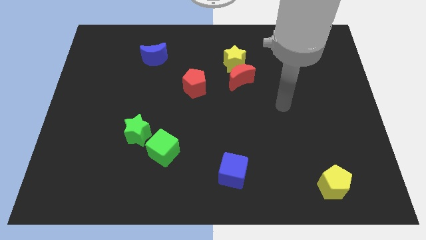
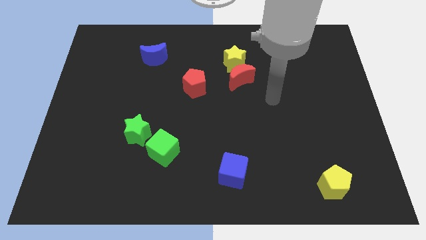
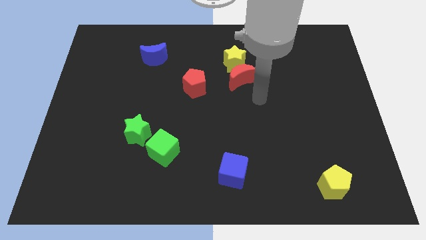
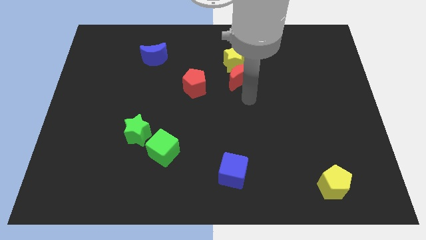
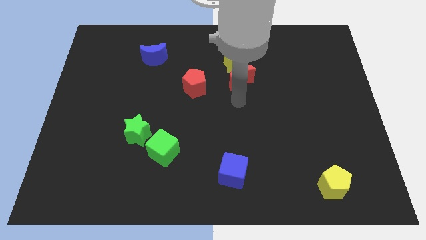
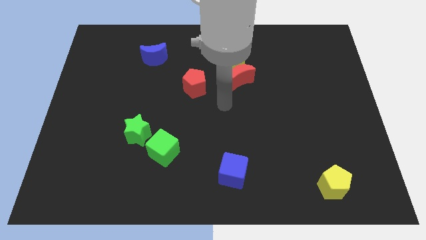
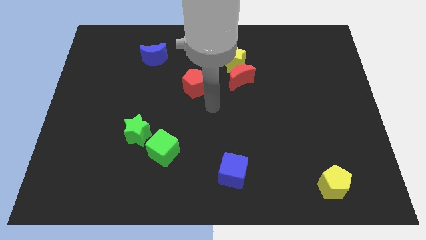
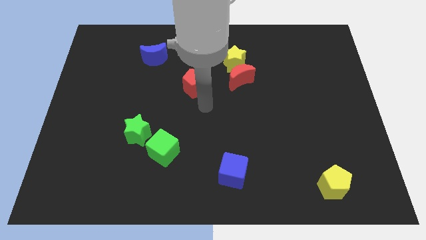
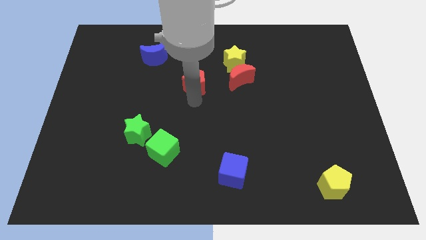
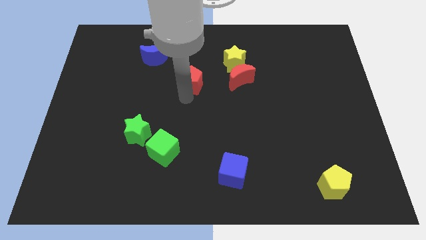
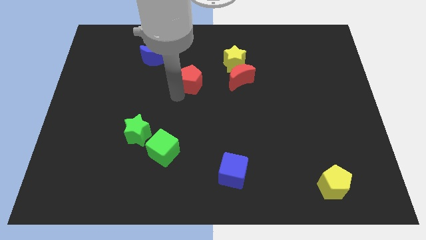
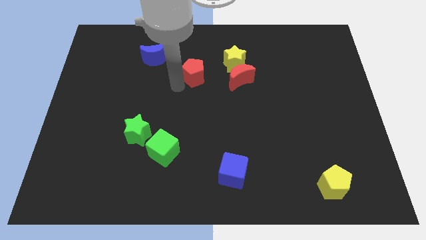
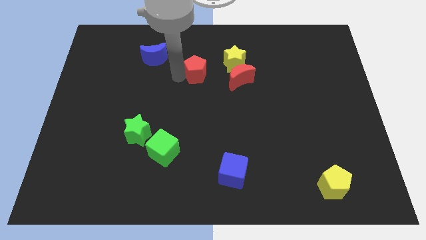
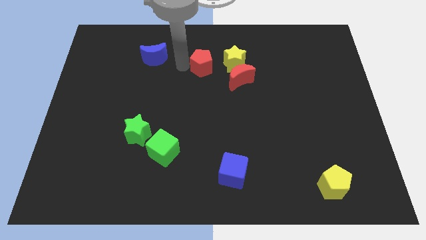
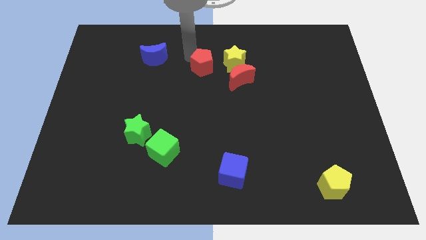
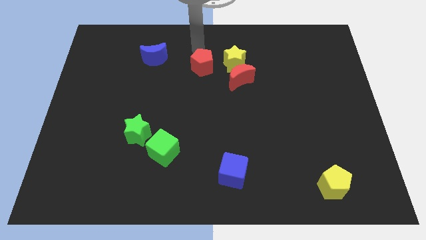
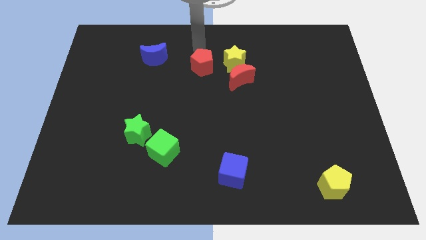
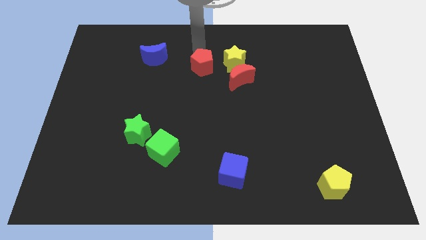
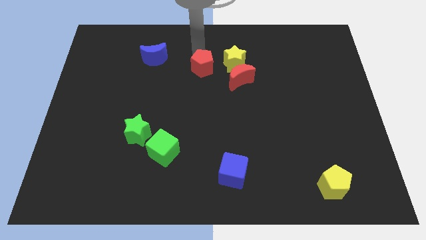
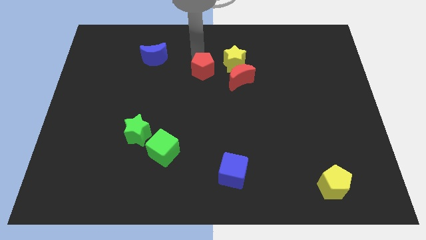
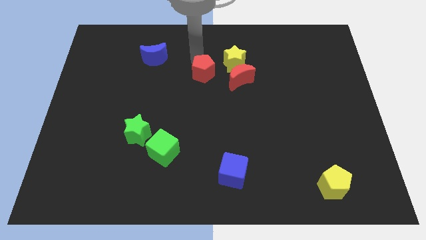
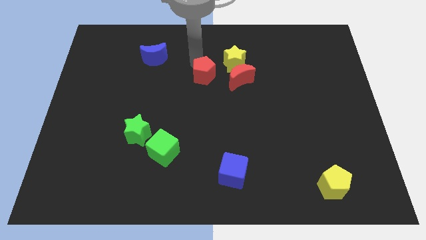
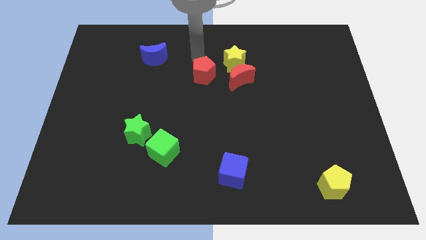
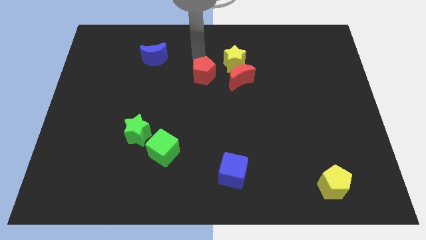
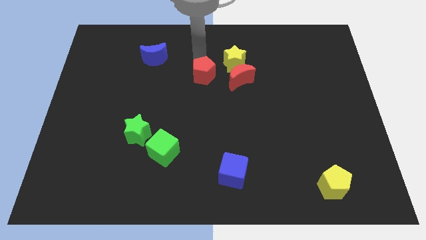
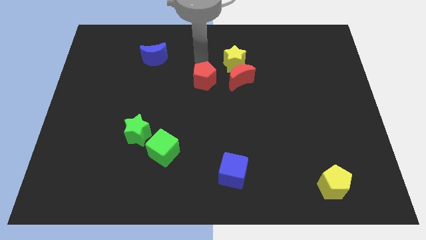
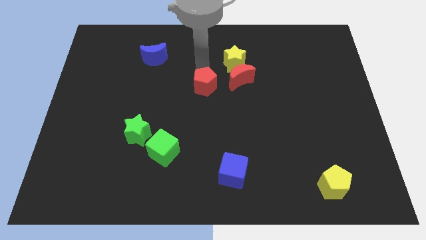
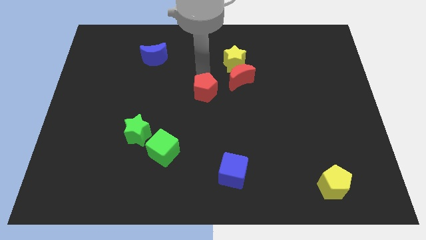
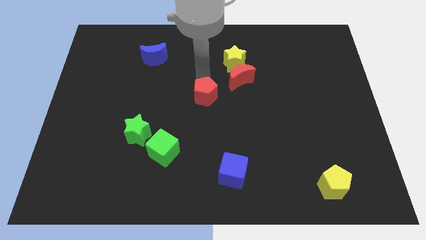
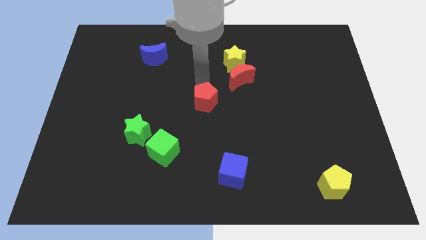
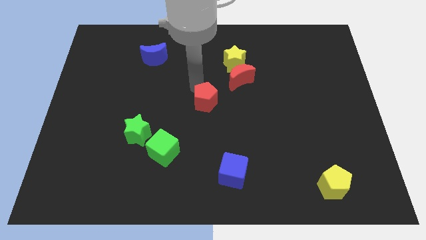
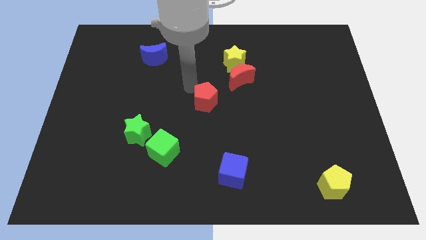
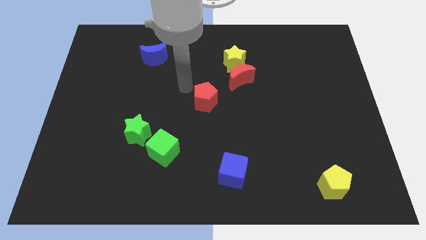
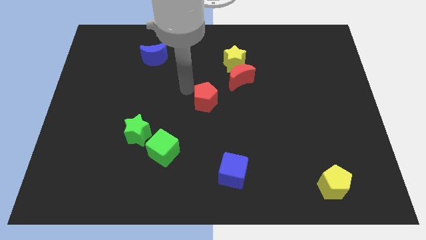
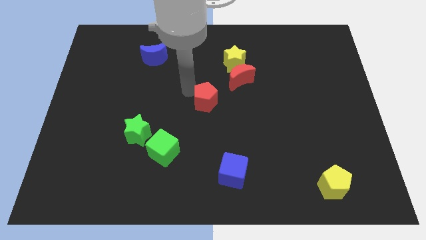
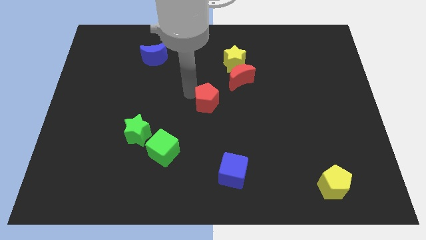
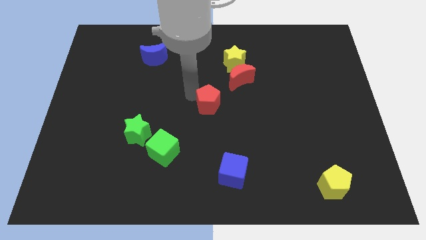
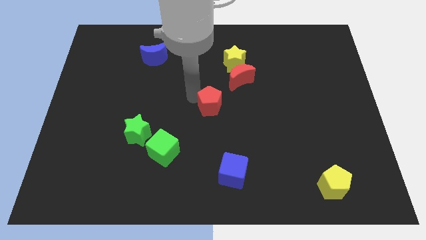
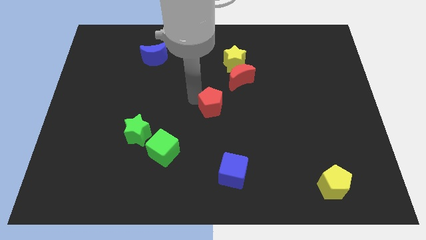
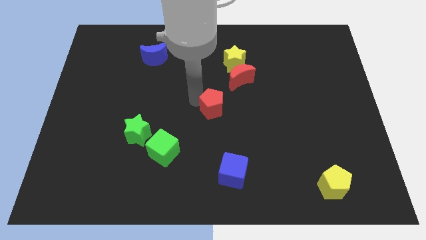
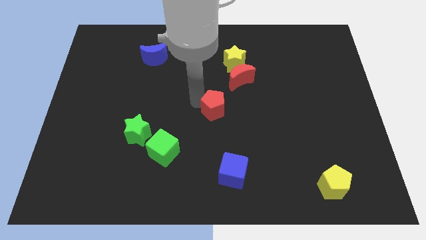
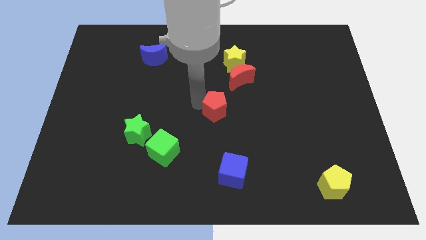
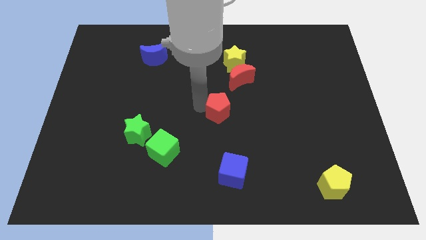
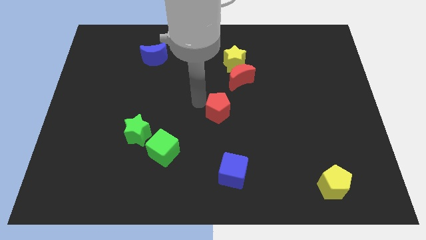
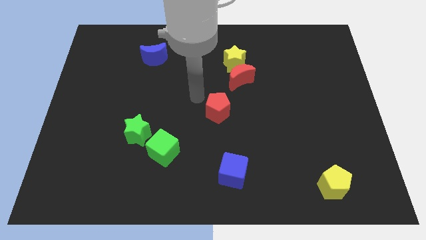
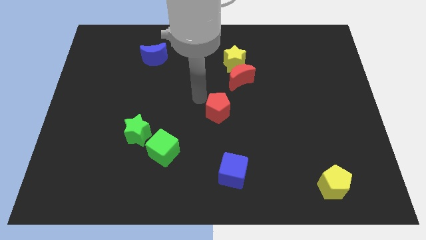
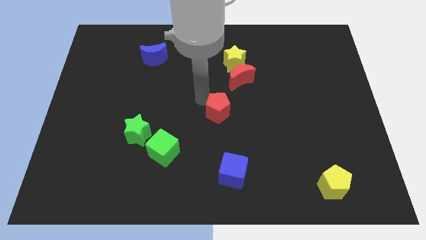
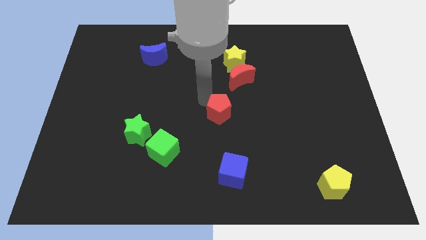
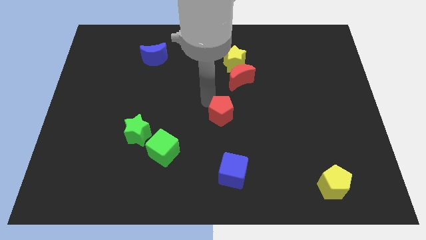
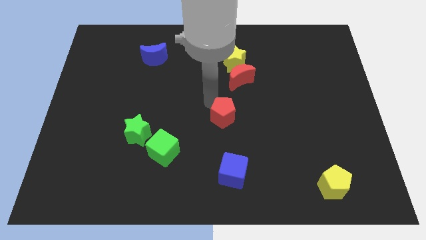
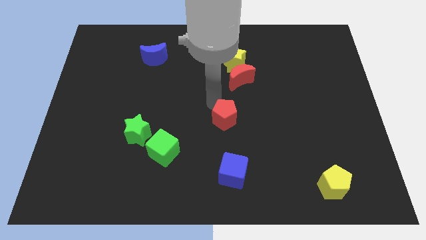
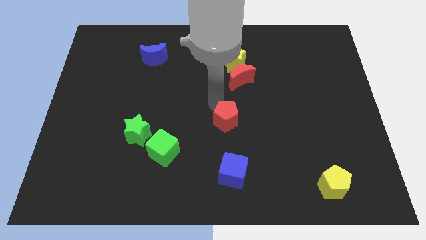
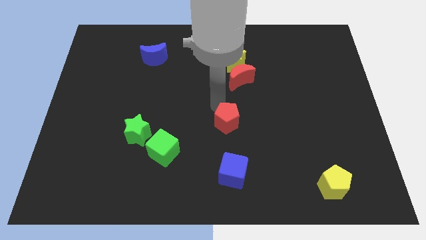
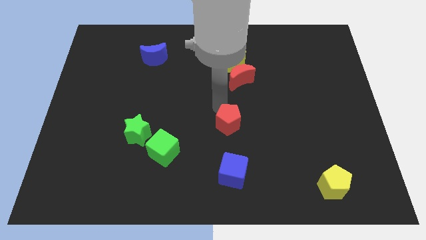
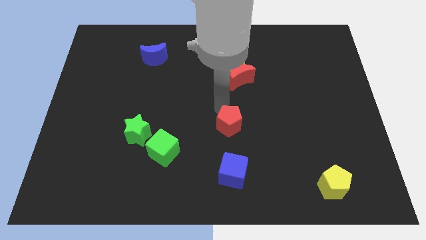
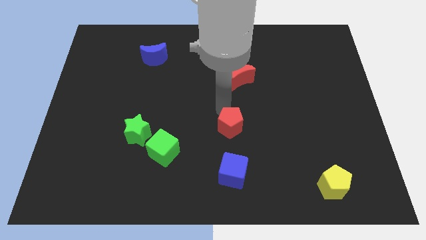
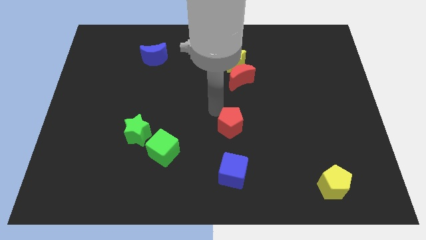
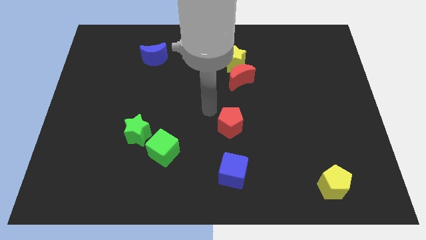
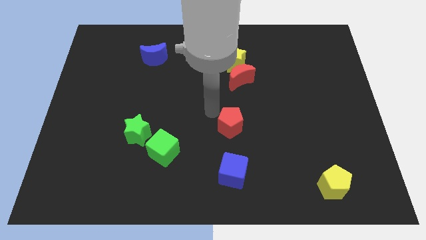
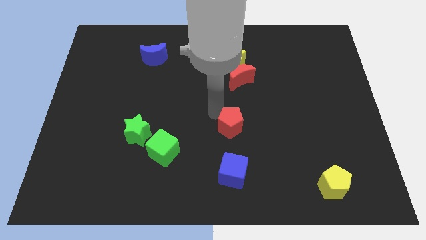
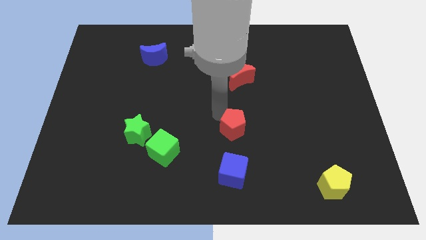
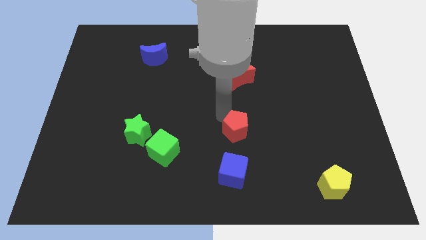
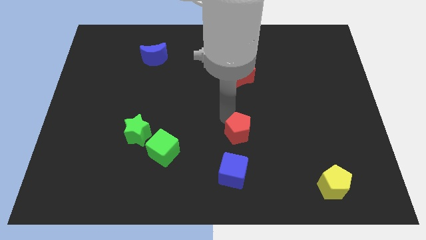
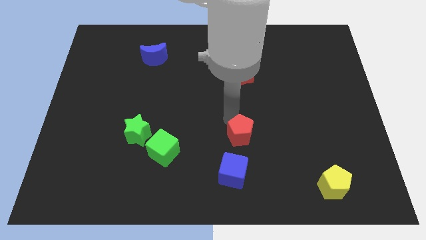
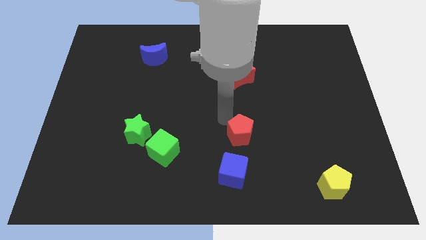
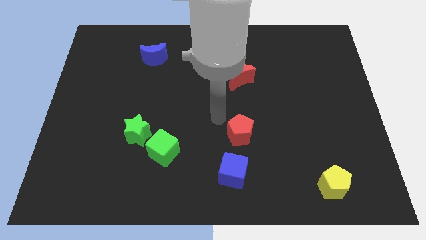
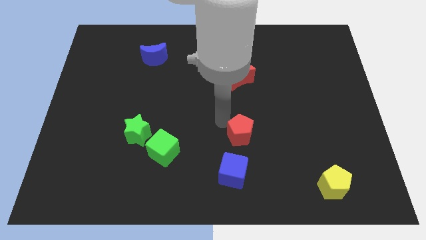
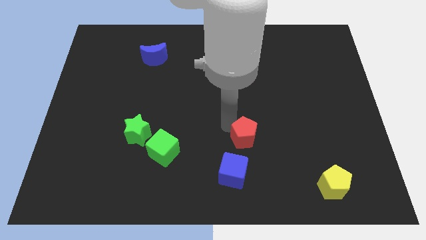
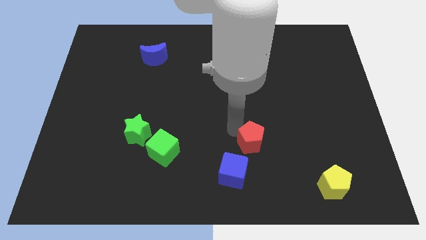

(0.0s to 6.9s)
push the red pentagon down and right

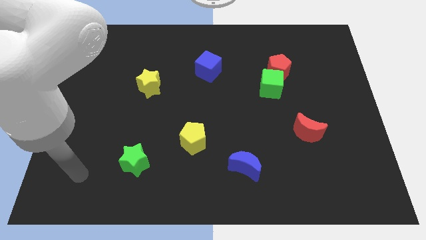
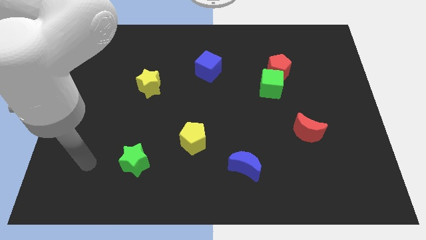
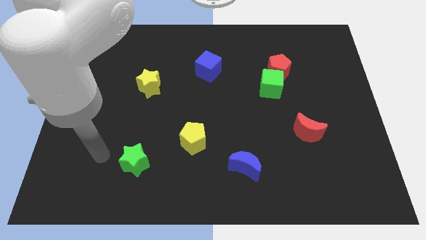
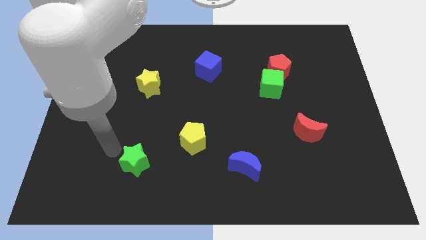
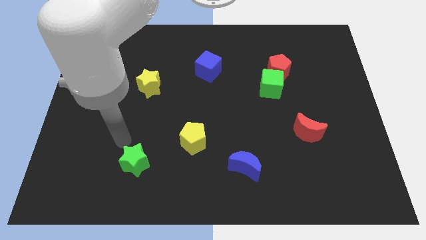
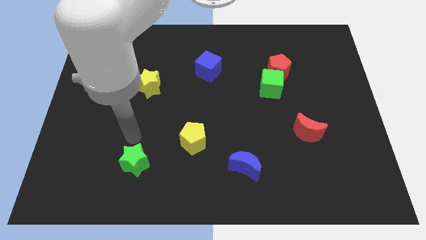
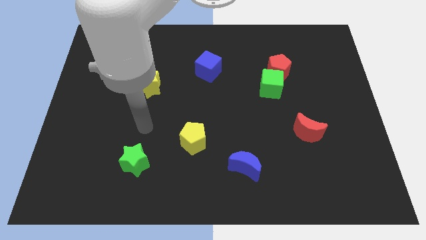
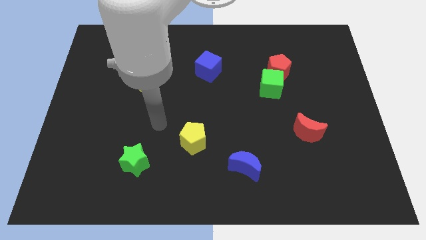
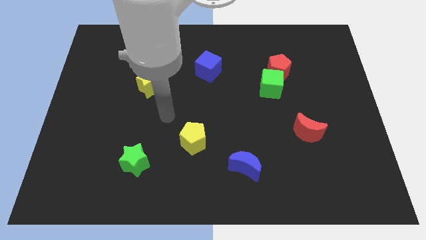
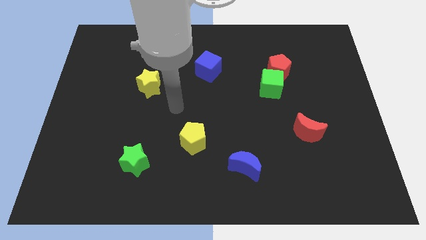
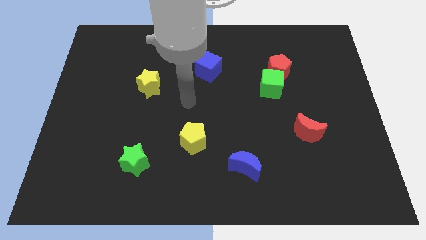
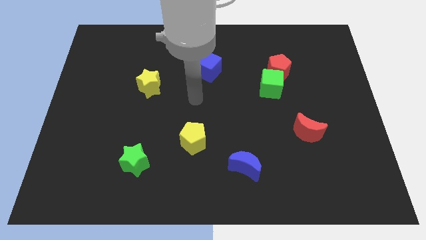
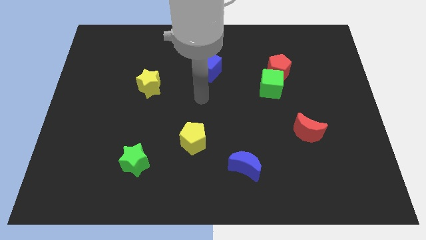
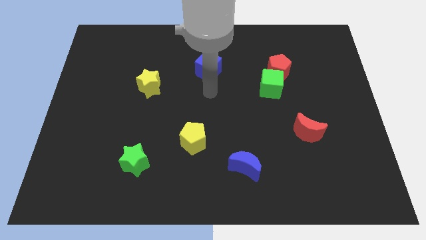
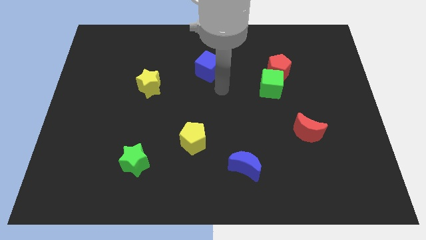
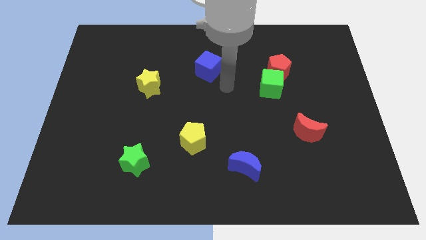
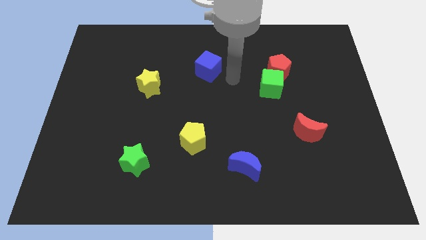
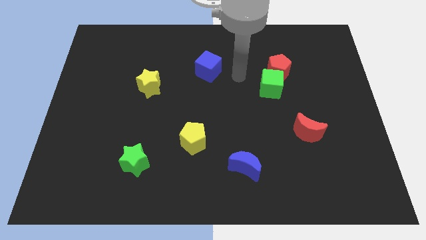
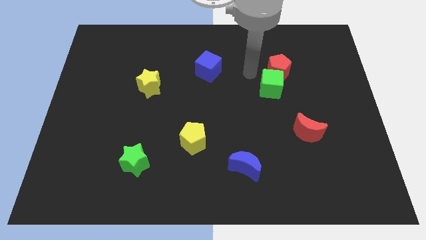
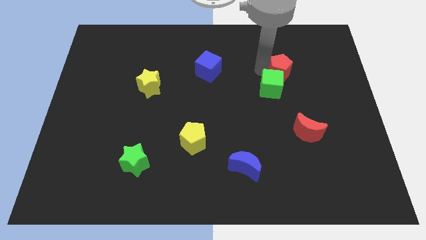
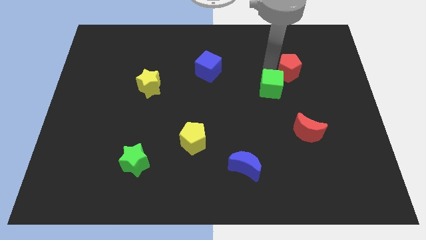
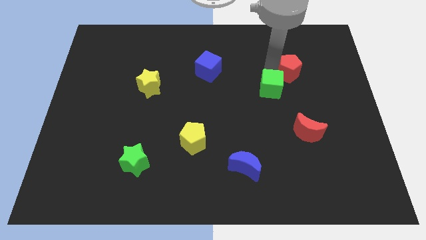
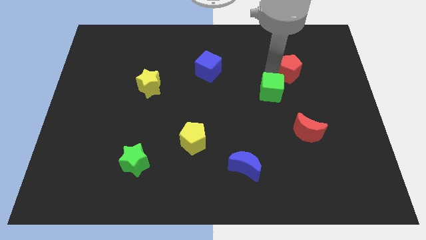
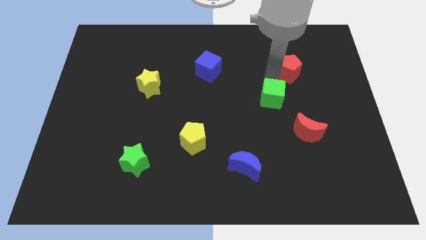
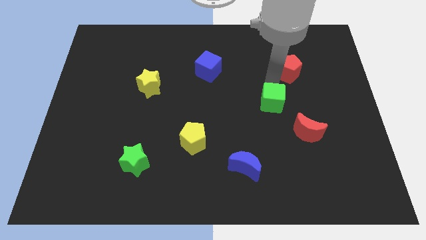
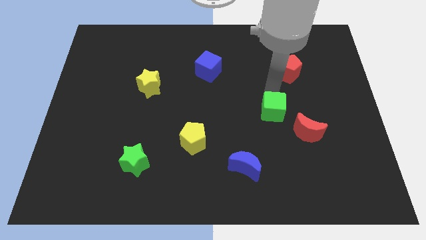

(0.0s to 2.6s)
push the green cube down a little bit
